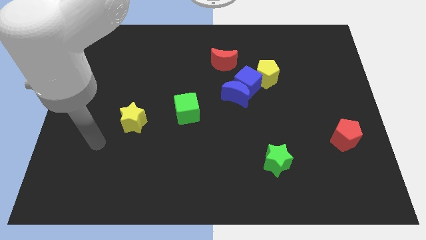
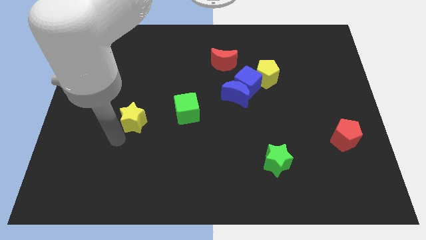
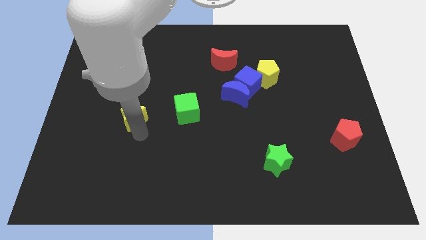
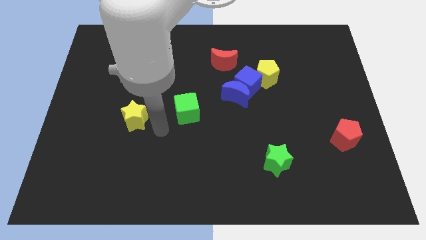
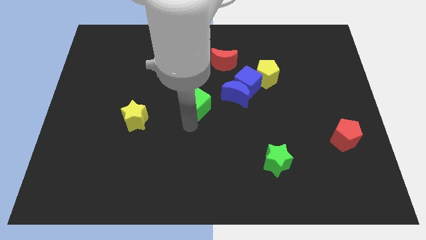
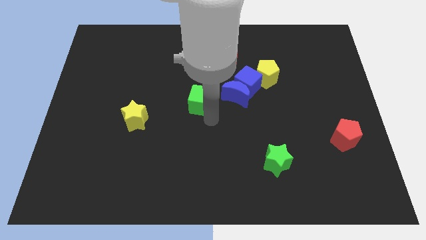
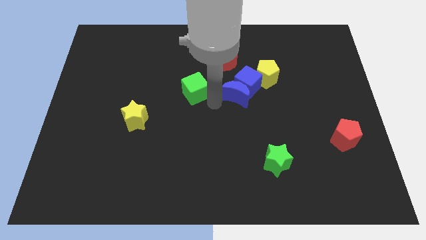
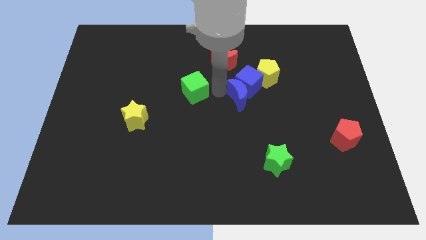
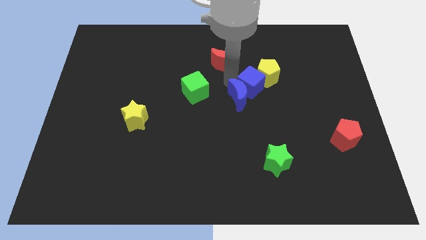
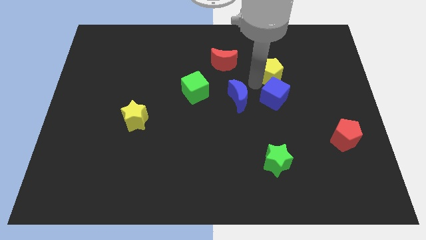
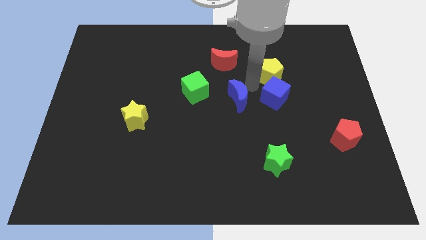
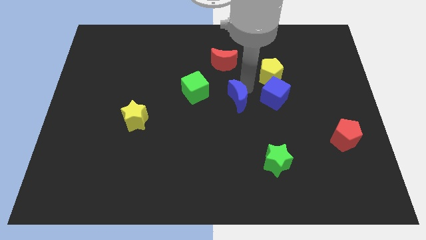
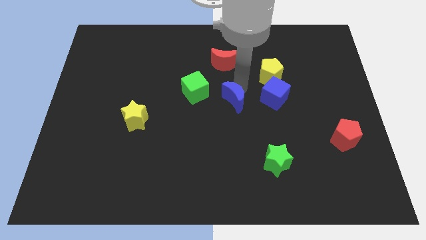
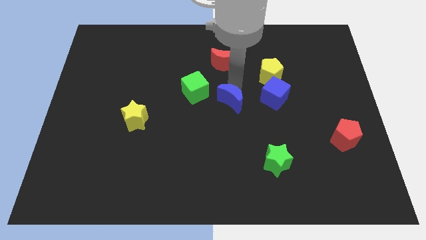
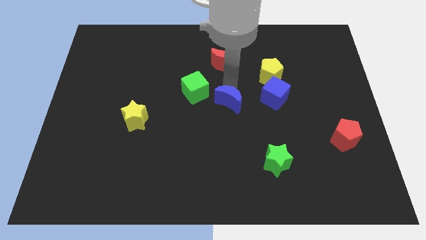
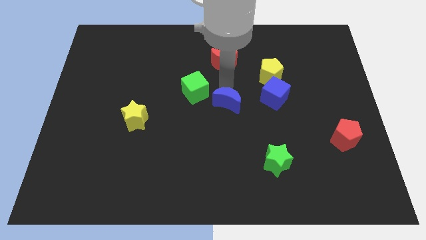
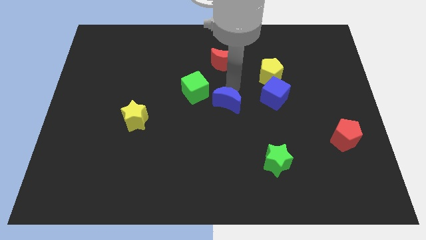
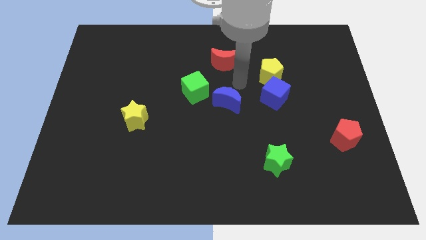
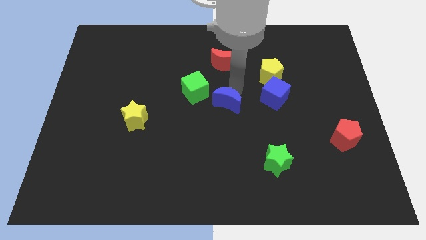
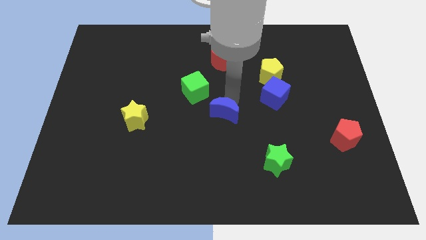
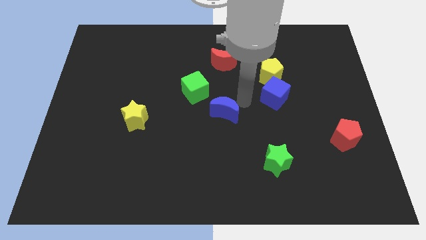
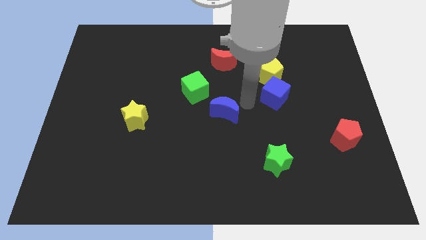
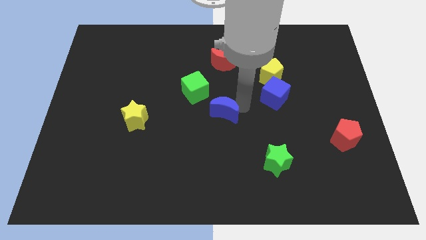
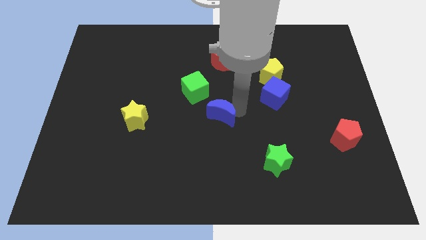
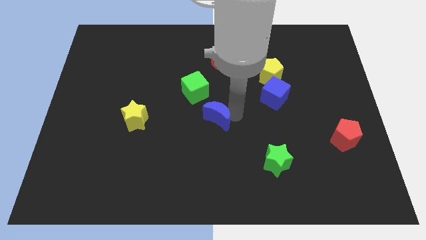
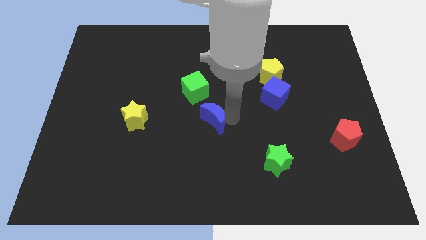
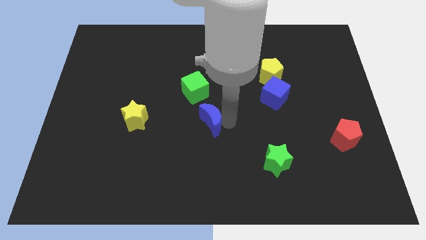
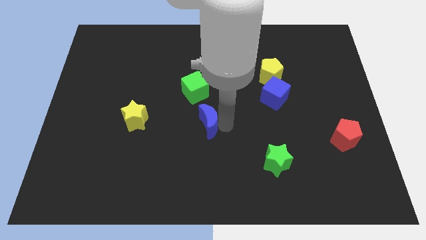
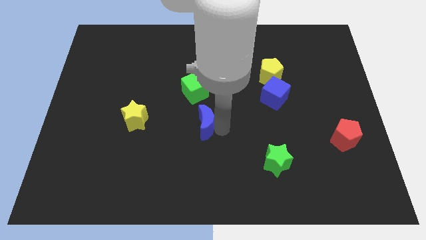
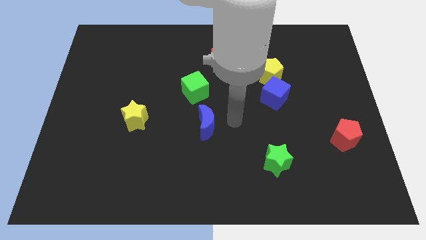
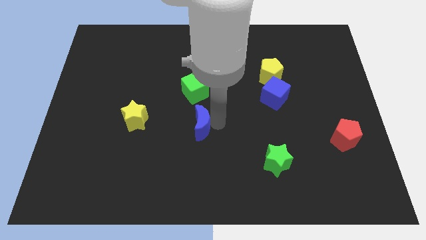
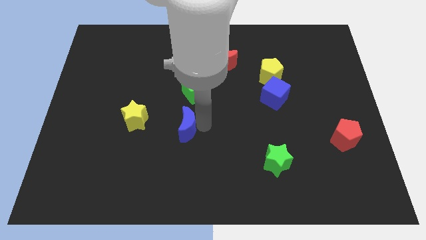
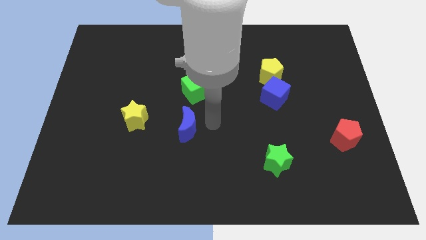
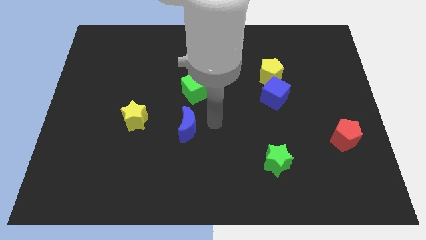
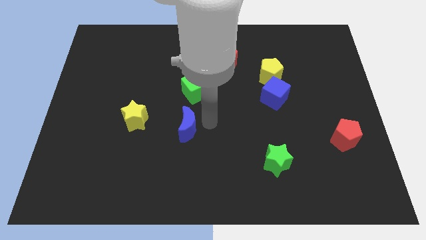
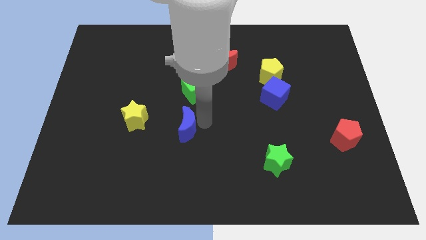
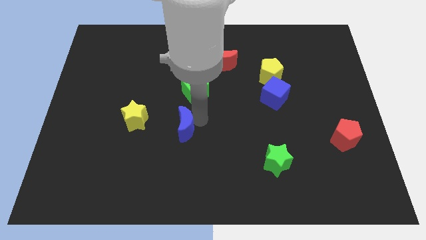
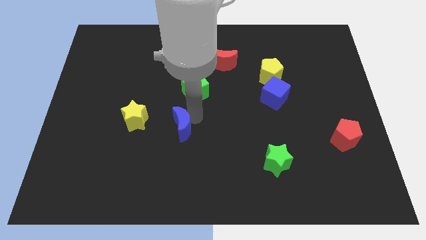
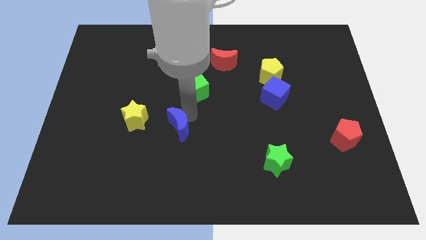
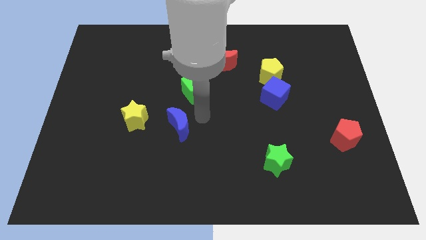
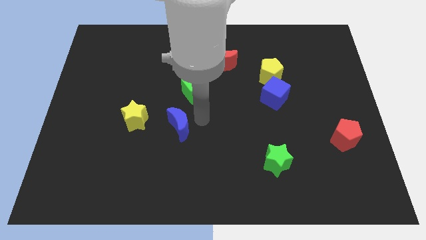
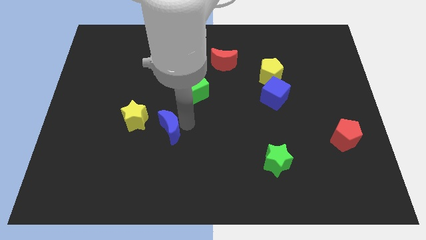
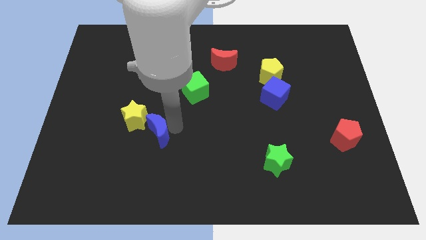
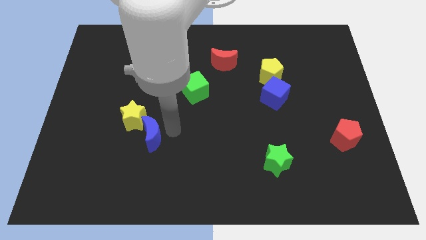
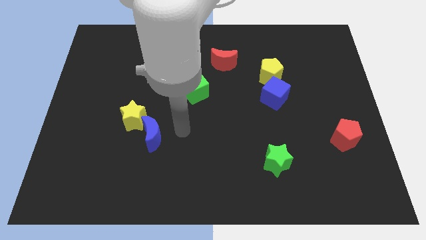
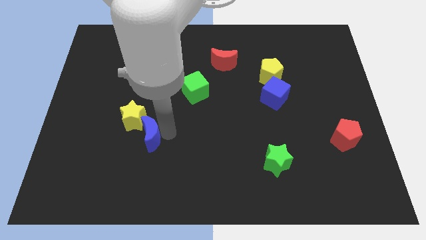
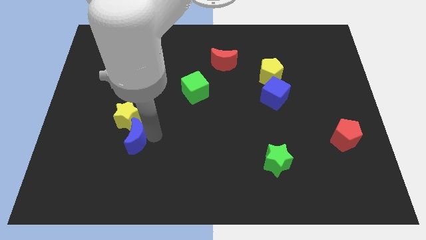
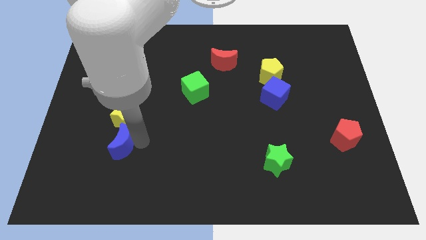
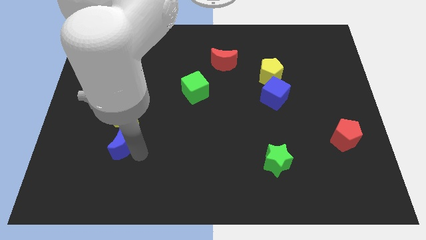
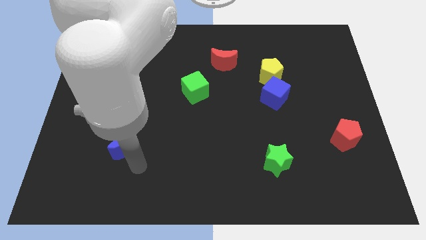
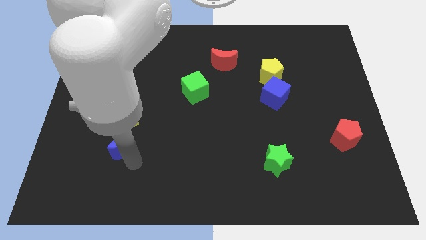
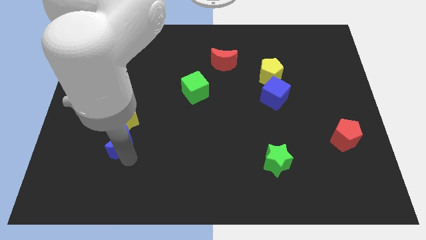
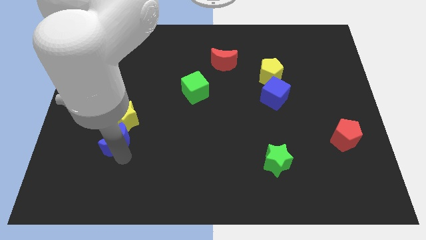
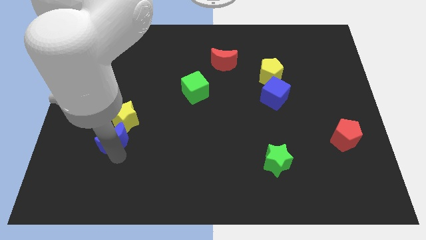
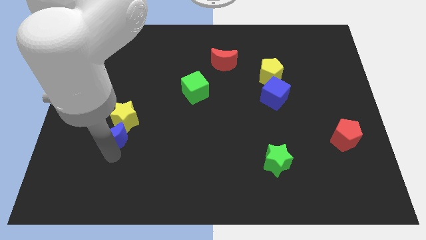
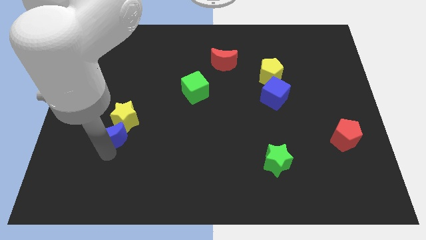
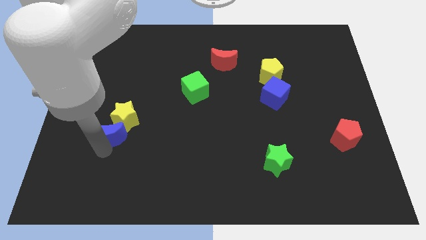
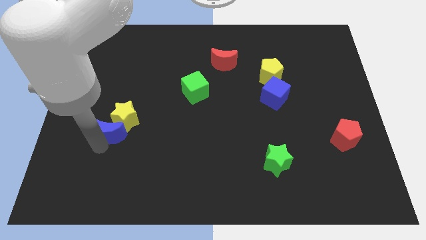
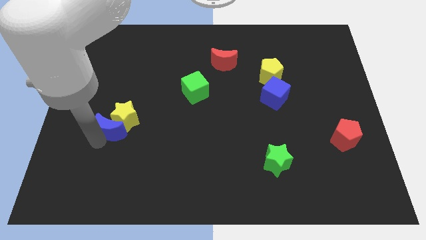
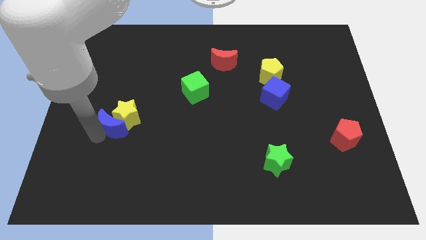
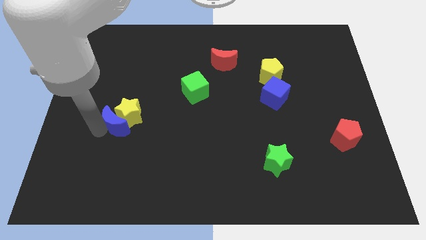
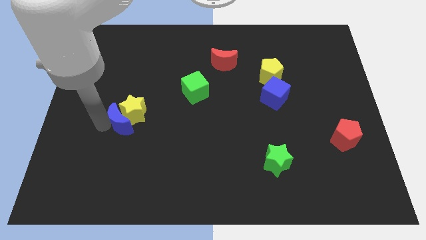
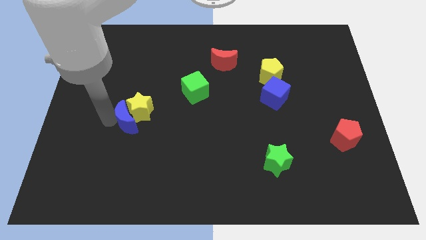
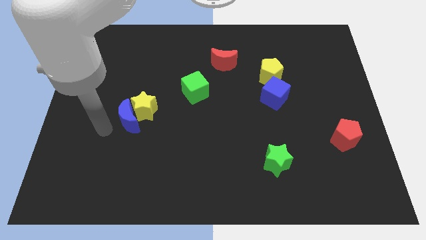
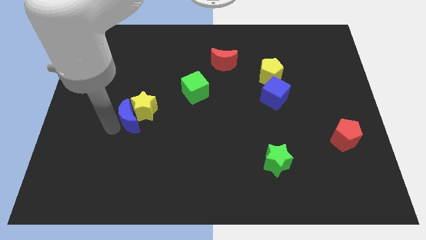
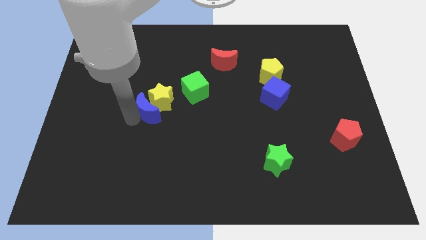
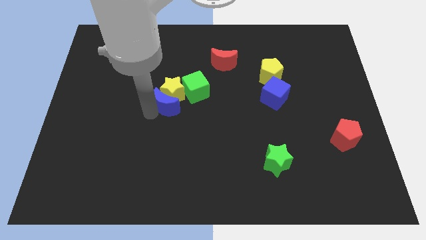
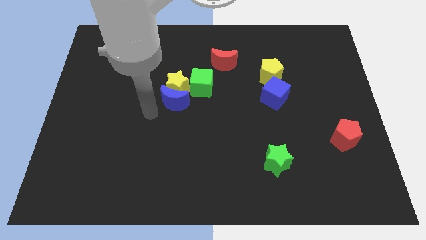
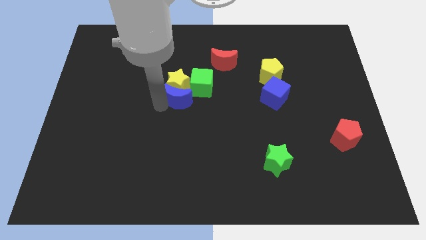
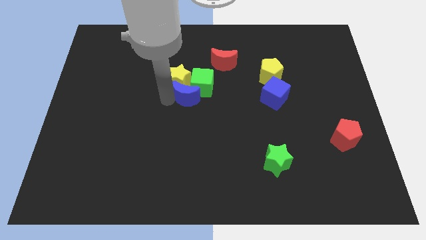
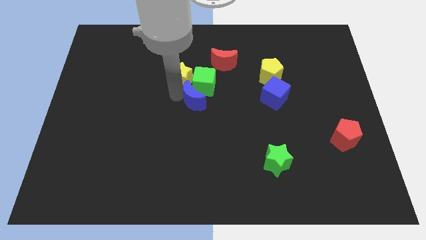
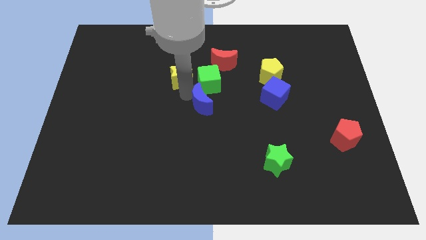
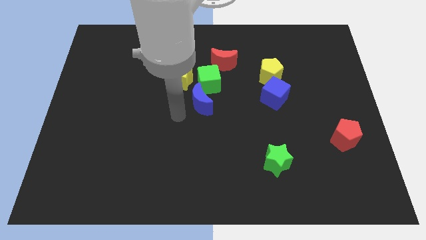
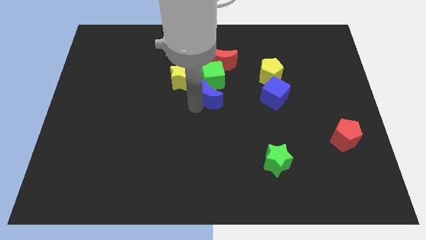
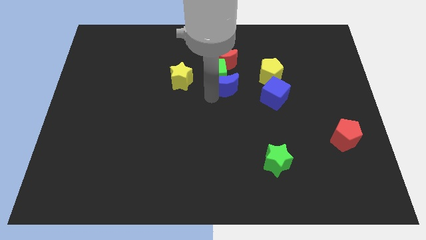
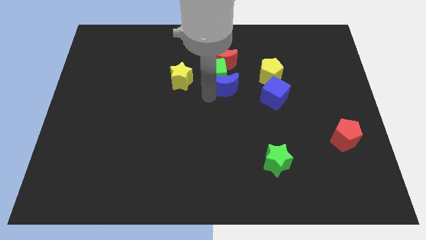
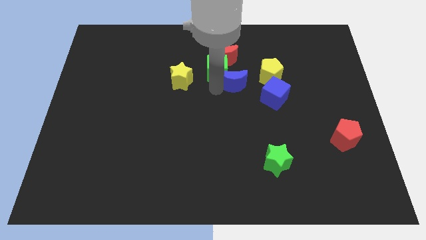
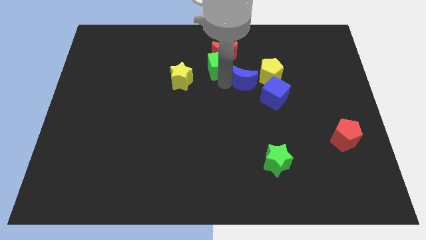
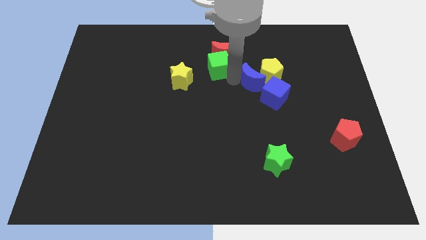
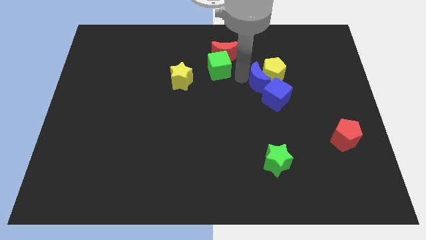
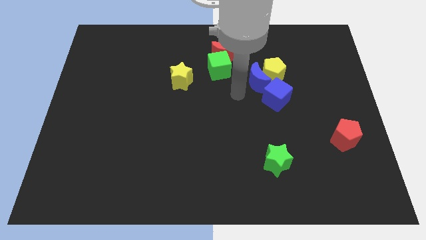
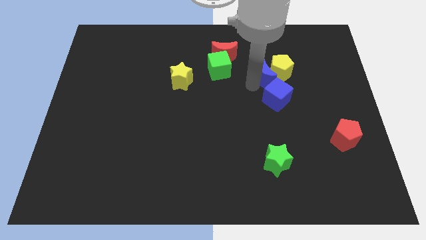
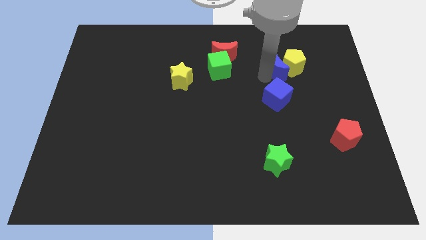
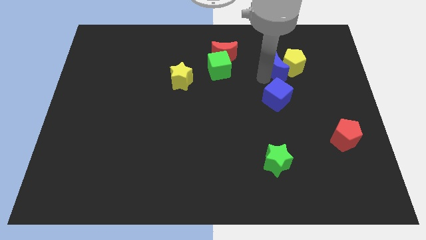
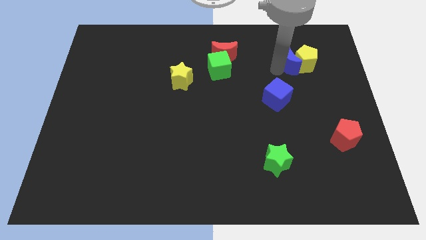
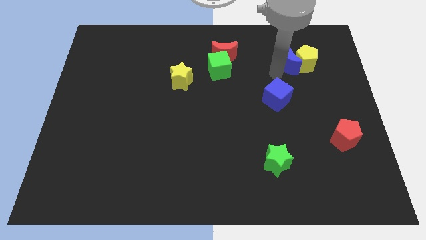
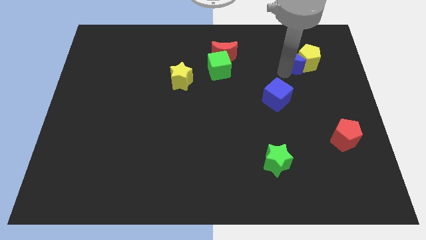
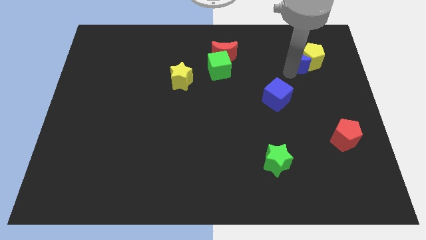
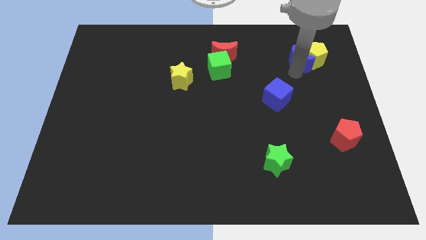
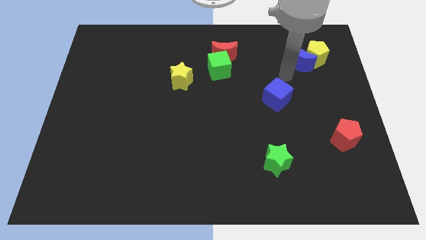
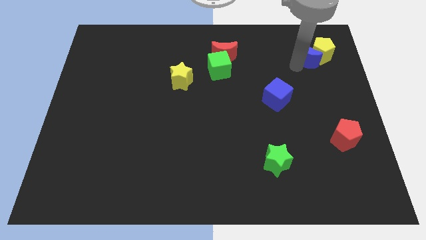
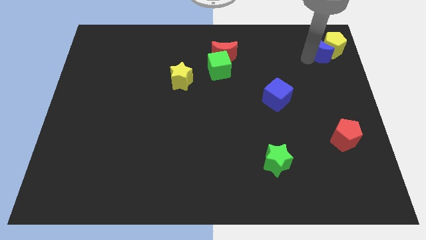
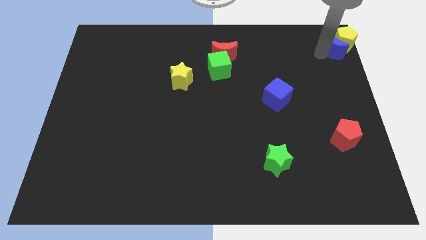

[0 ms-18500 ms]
move the blue moon to the top right
